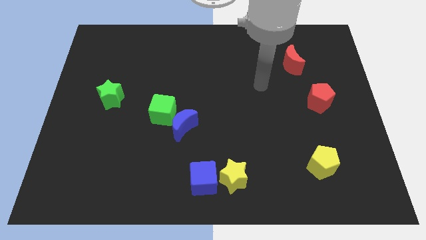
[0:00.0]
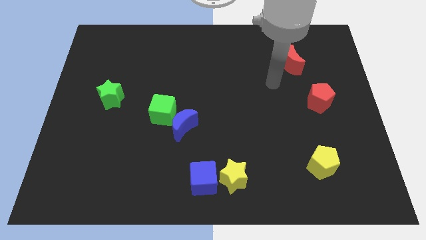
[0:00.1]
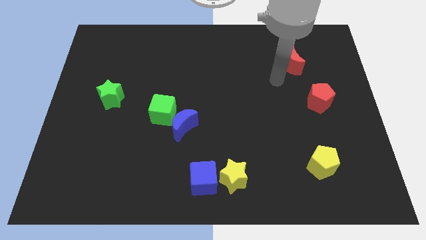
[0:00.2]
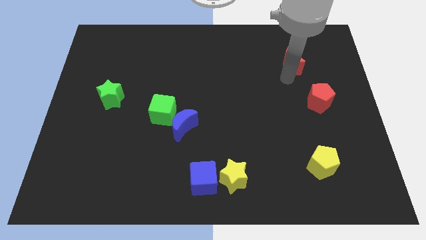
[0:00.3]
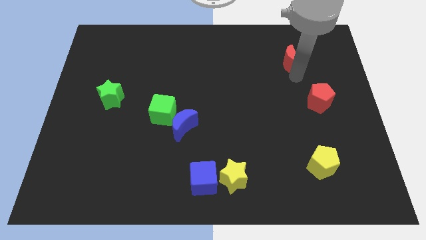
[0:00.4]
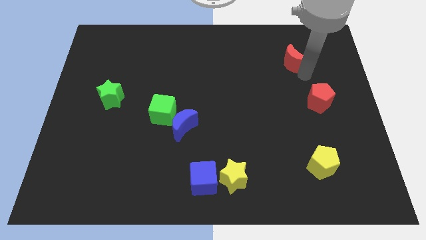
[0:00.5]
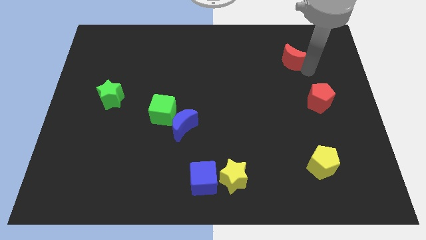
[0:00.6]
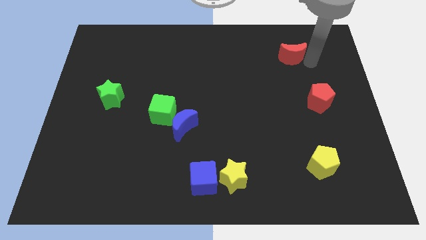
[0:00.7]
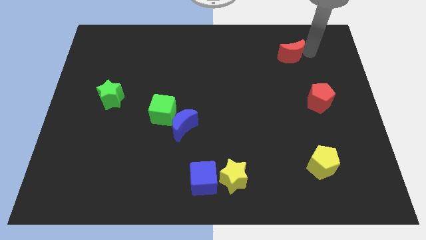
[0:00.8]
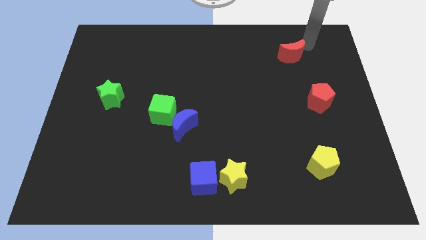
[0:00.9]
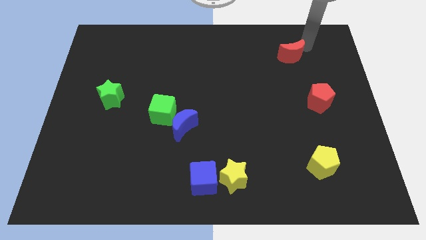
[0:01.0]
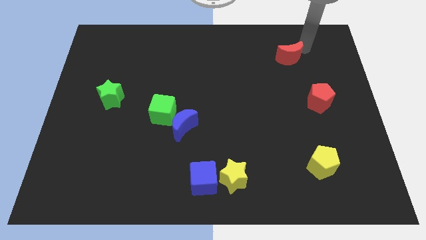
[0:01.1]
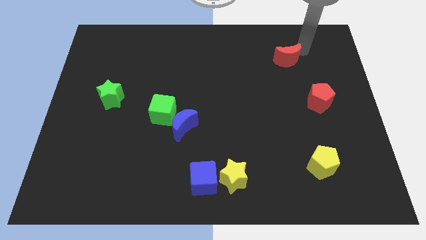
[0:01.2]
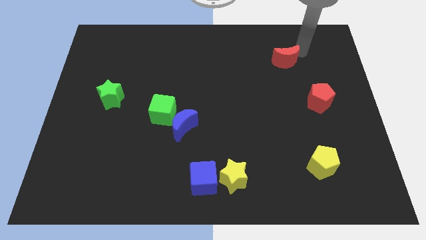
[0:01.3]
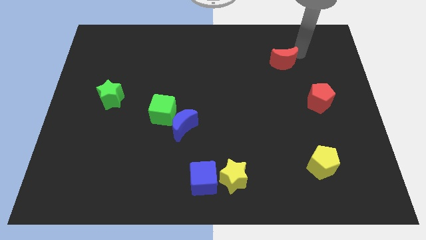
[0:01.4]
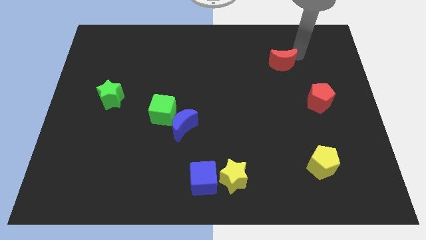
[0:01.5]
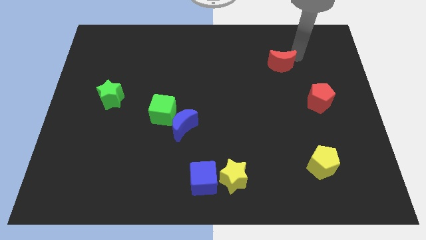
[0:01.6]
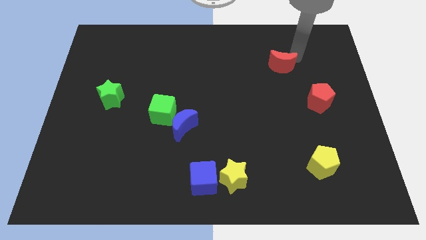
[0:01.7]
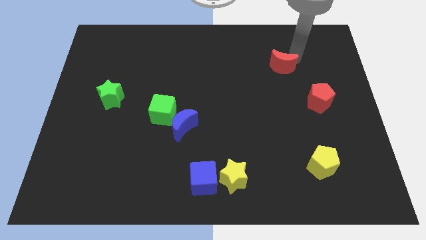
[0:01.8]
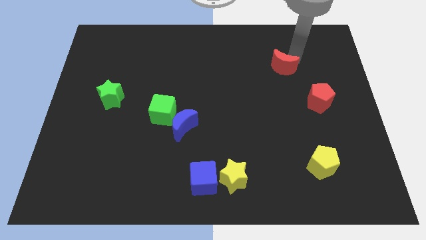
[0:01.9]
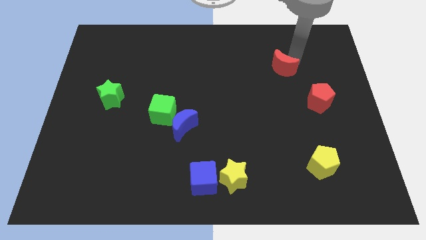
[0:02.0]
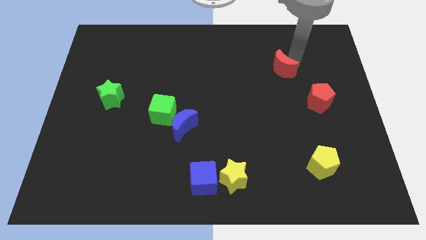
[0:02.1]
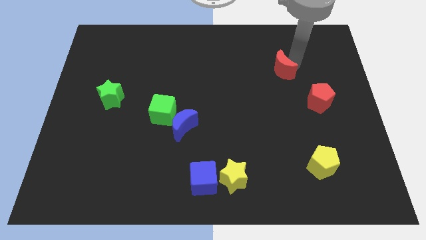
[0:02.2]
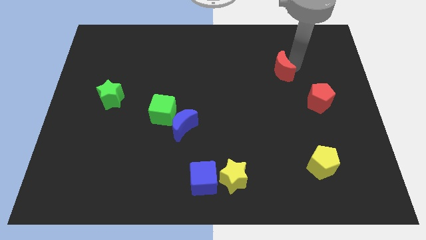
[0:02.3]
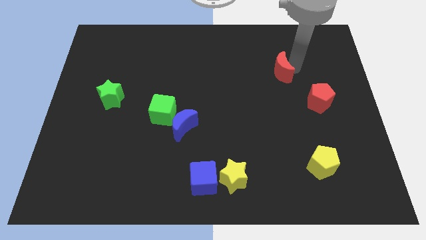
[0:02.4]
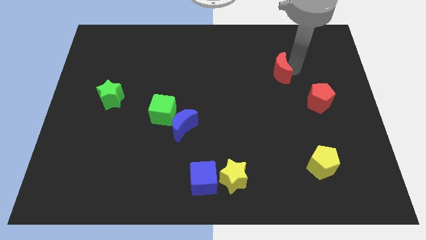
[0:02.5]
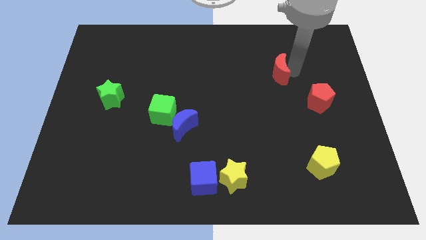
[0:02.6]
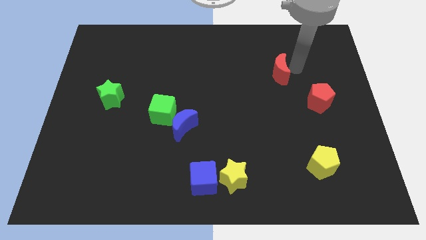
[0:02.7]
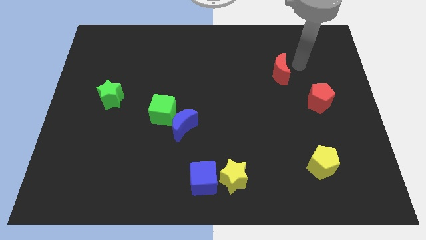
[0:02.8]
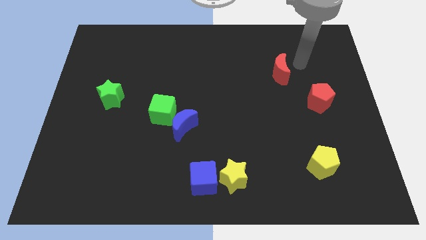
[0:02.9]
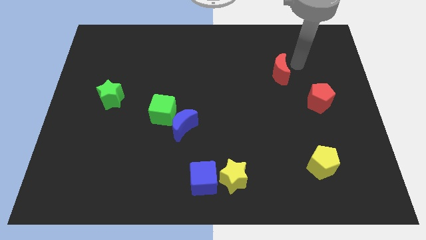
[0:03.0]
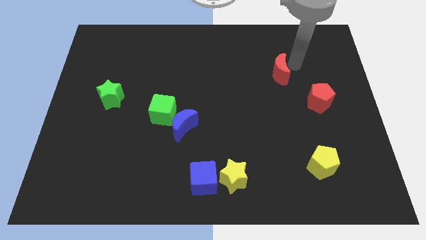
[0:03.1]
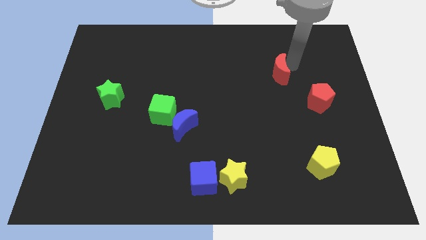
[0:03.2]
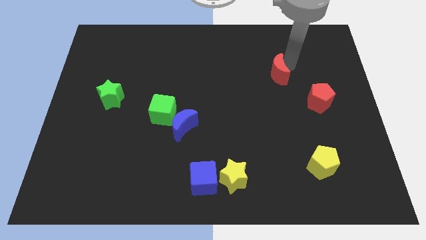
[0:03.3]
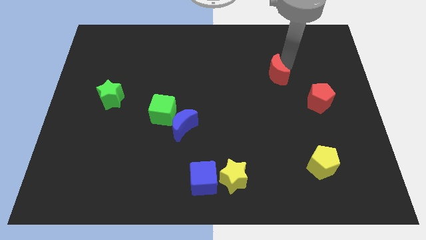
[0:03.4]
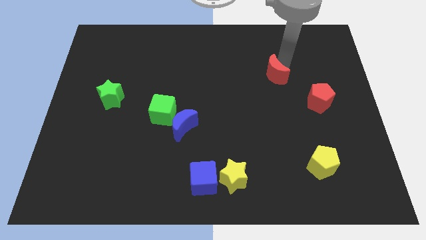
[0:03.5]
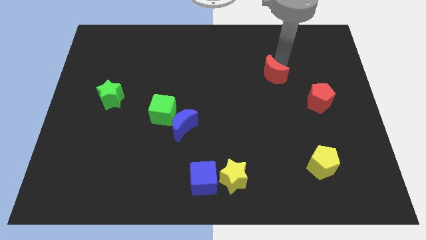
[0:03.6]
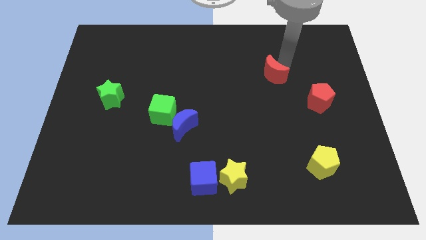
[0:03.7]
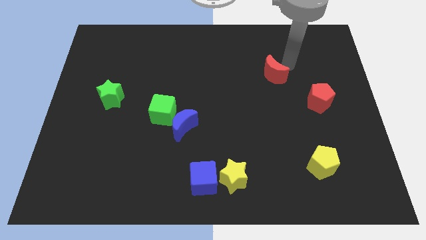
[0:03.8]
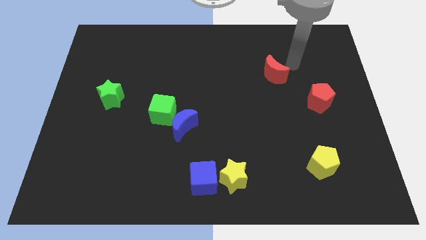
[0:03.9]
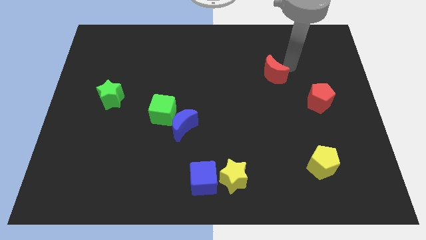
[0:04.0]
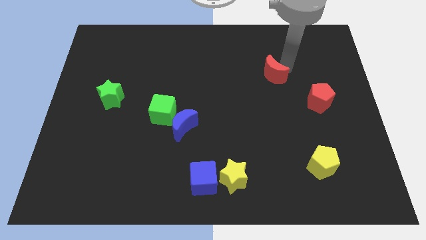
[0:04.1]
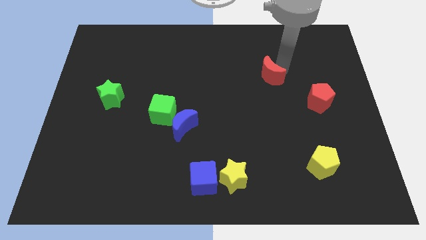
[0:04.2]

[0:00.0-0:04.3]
slide the red moon a little bit down and left diagonally

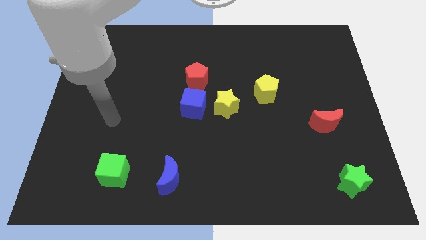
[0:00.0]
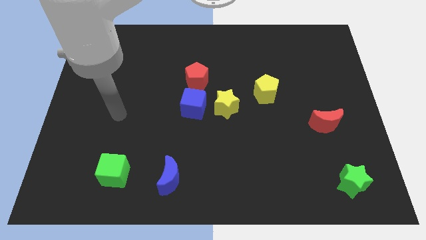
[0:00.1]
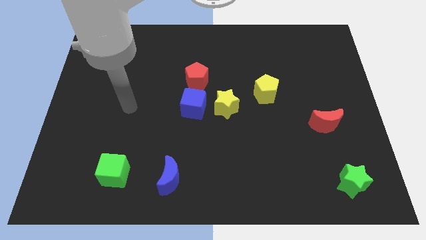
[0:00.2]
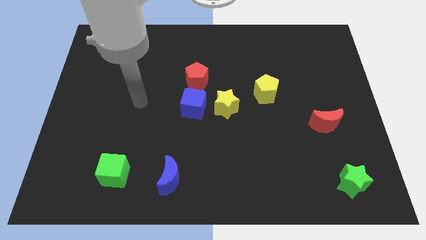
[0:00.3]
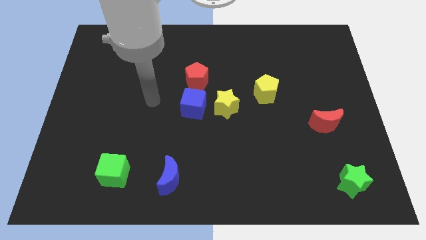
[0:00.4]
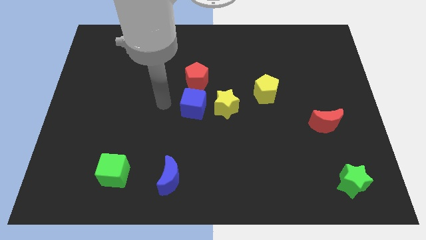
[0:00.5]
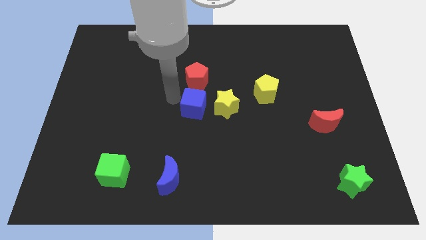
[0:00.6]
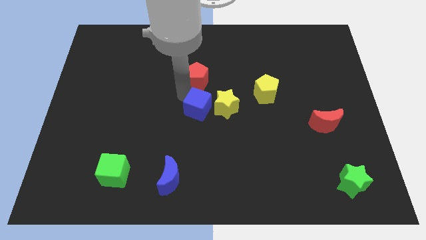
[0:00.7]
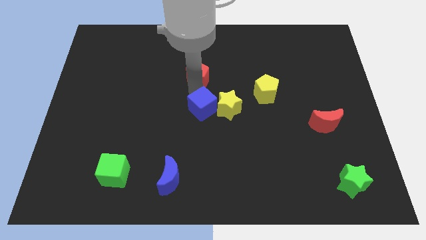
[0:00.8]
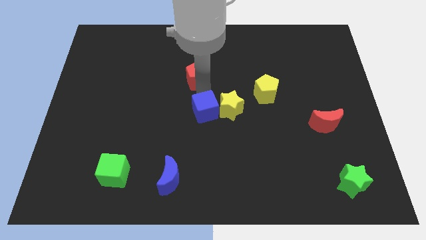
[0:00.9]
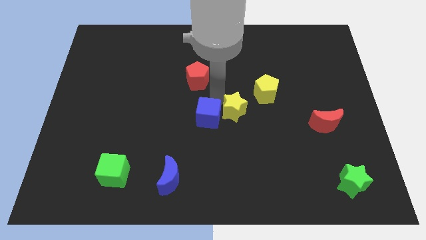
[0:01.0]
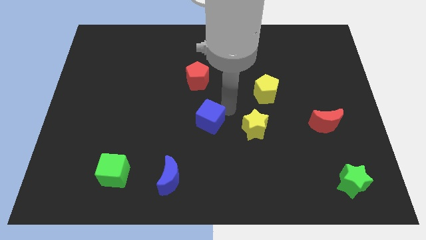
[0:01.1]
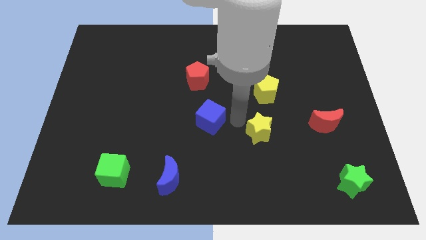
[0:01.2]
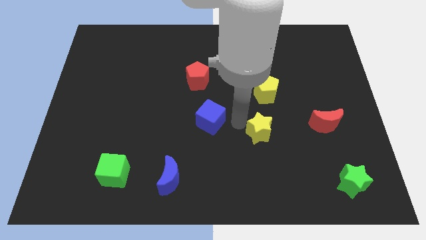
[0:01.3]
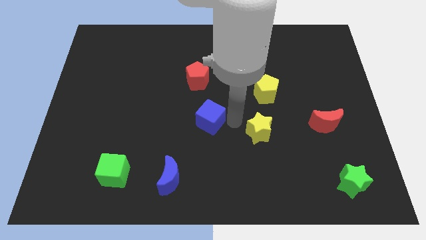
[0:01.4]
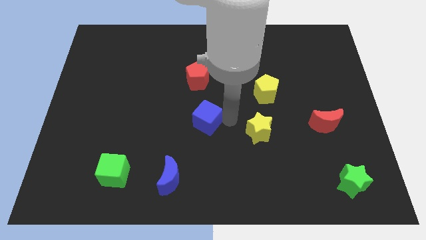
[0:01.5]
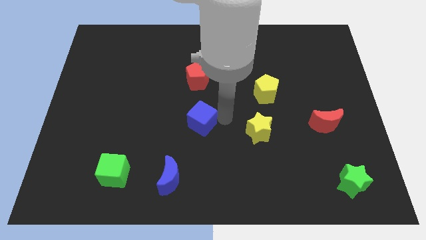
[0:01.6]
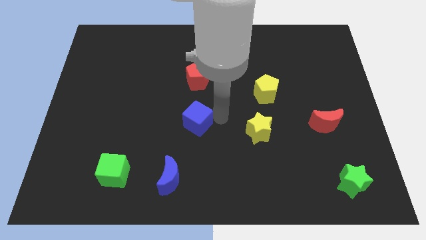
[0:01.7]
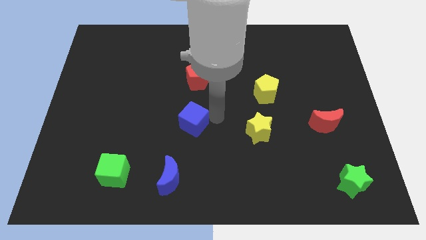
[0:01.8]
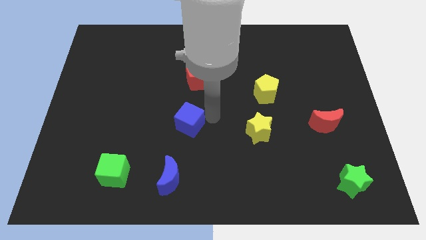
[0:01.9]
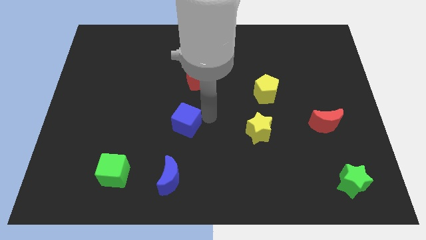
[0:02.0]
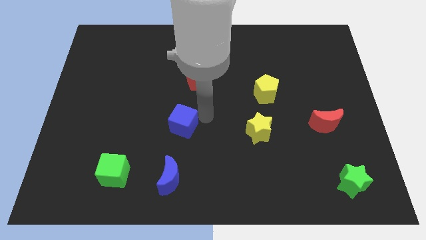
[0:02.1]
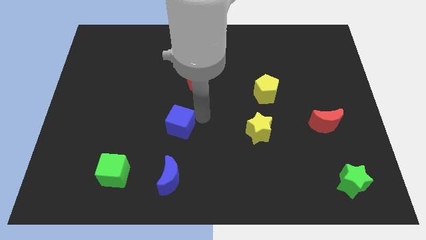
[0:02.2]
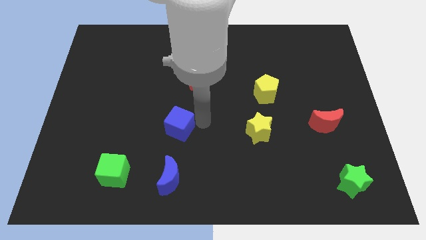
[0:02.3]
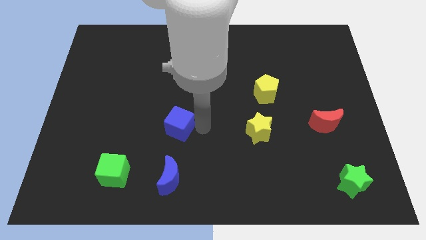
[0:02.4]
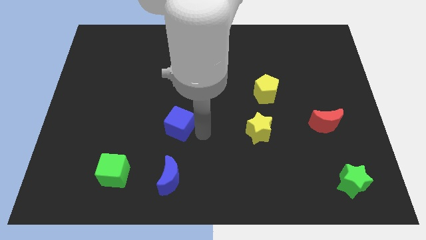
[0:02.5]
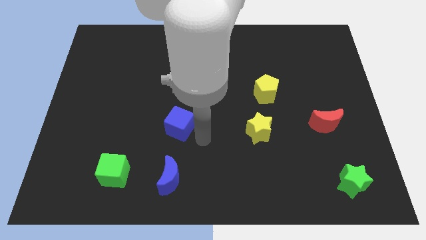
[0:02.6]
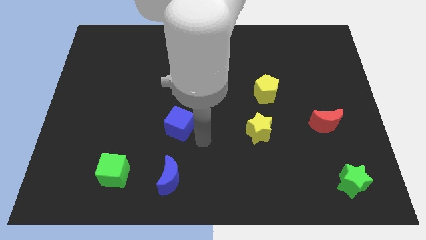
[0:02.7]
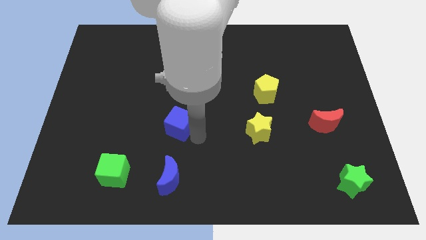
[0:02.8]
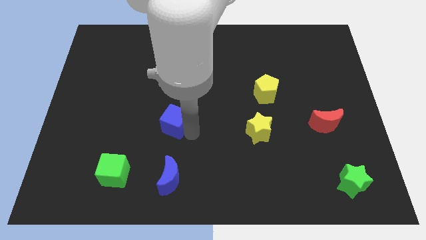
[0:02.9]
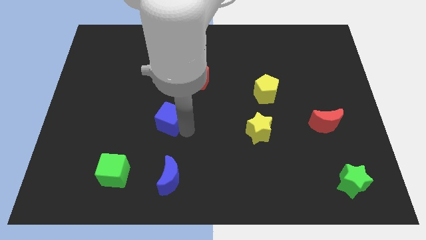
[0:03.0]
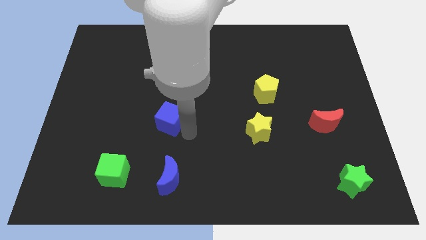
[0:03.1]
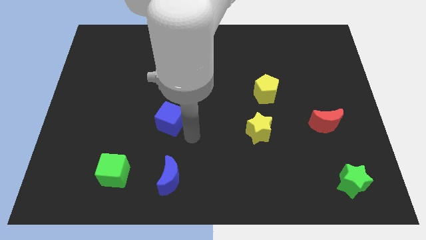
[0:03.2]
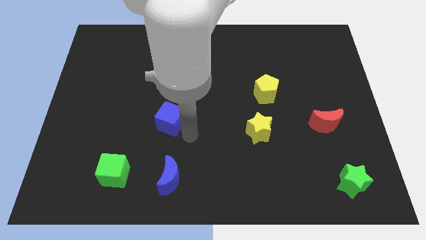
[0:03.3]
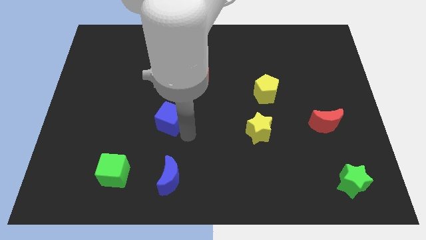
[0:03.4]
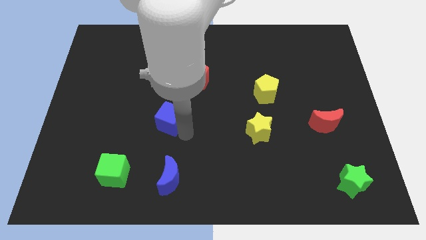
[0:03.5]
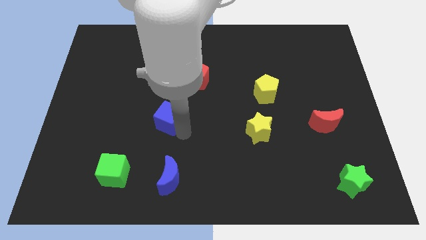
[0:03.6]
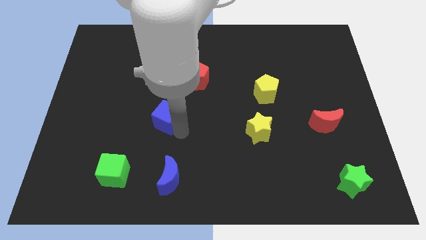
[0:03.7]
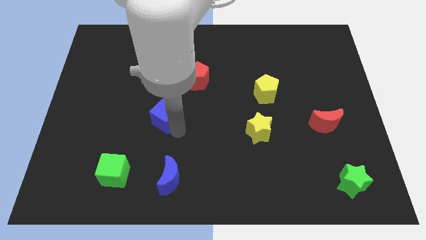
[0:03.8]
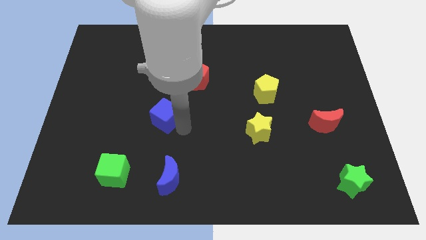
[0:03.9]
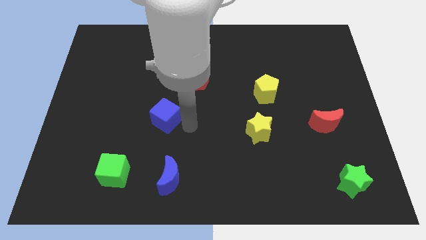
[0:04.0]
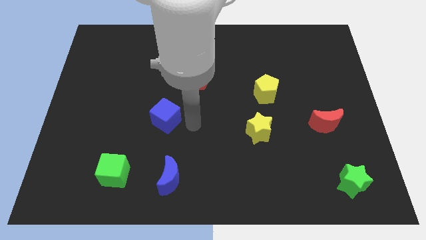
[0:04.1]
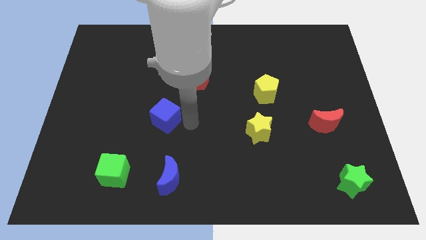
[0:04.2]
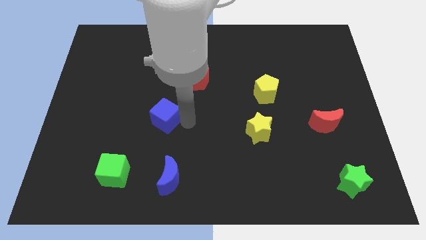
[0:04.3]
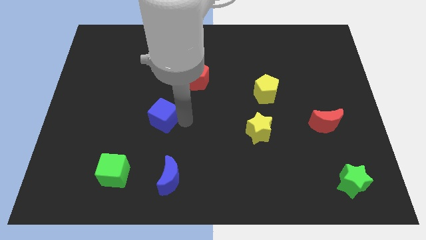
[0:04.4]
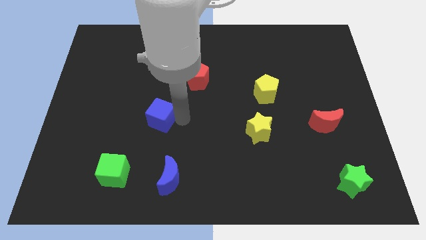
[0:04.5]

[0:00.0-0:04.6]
move the blue cube left somewhat
